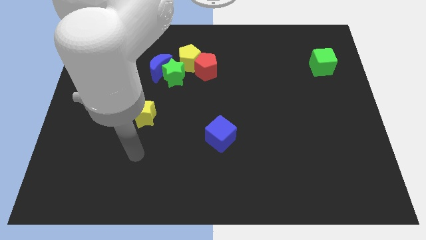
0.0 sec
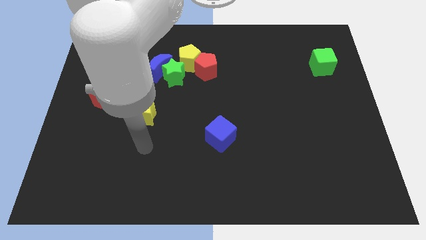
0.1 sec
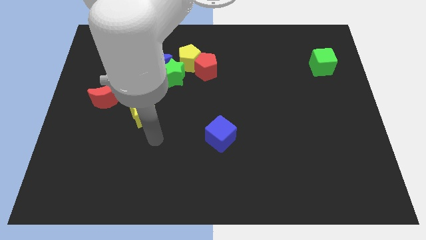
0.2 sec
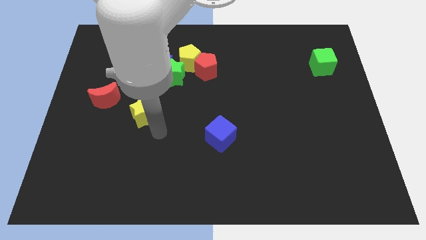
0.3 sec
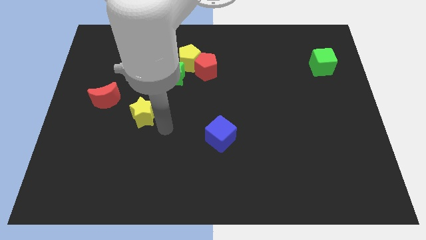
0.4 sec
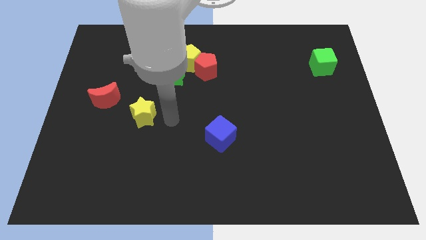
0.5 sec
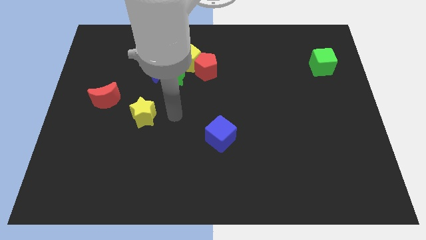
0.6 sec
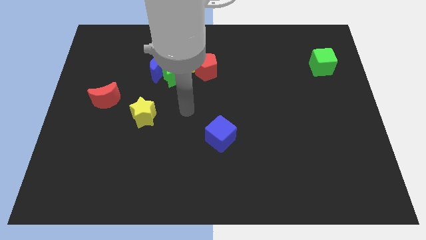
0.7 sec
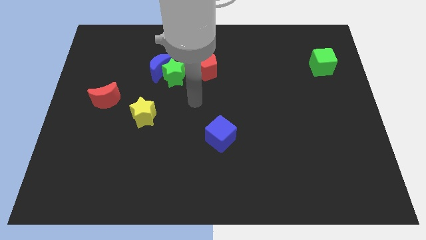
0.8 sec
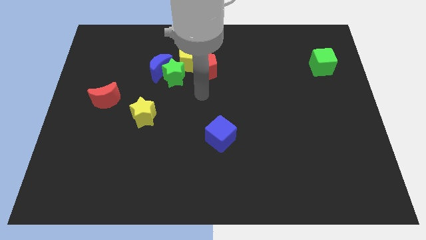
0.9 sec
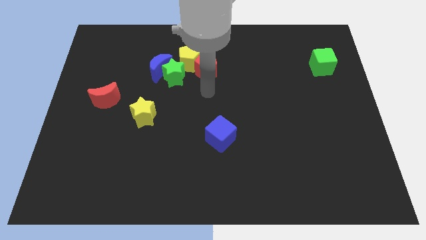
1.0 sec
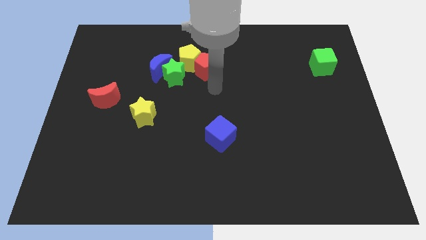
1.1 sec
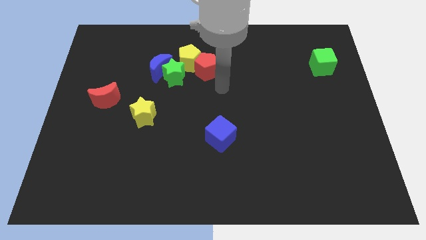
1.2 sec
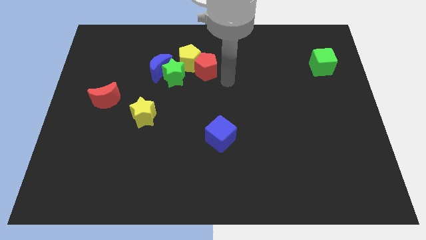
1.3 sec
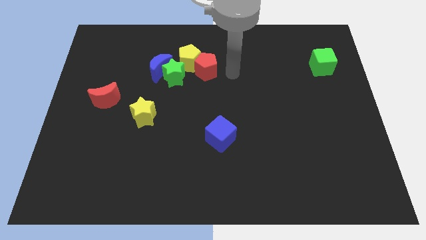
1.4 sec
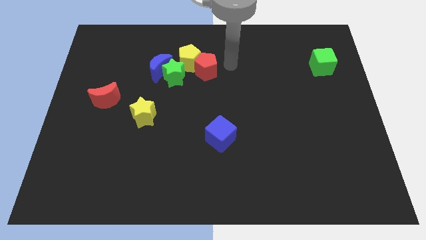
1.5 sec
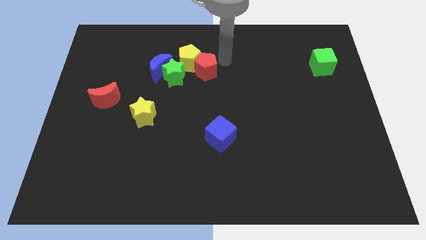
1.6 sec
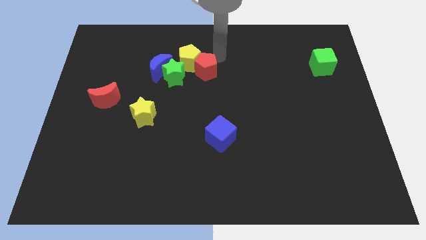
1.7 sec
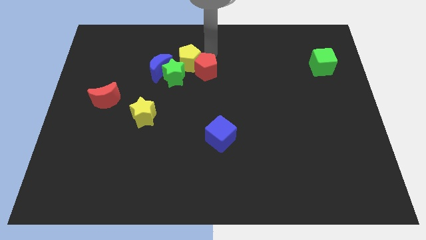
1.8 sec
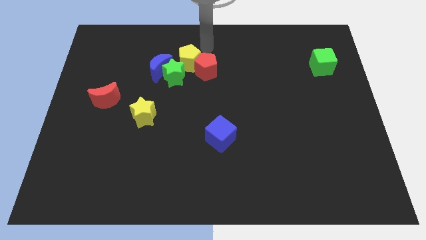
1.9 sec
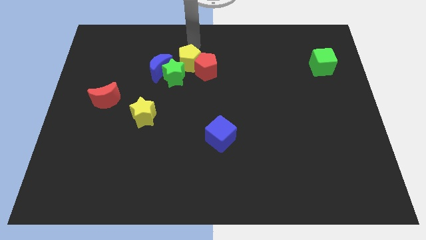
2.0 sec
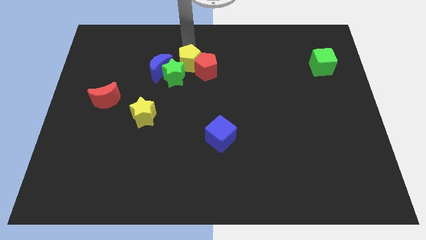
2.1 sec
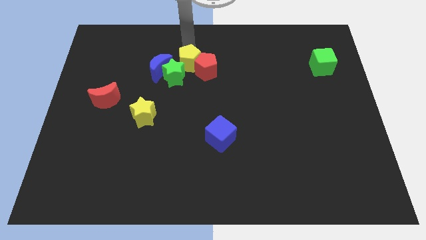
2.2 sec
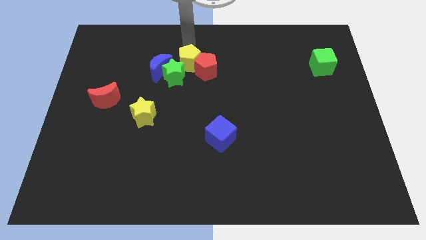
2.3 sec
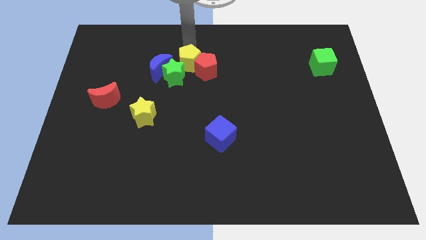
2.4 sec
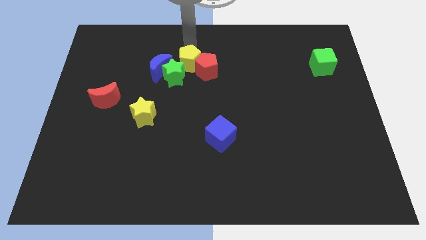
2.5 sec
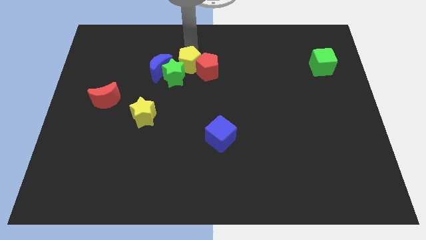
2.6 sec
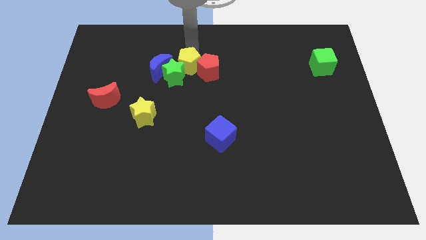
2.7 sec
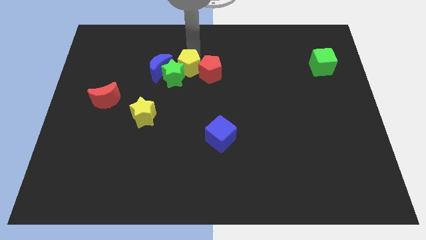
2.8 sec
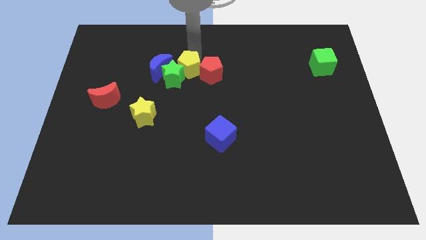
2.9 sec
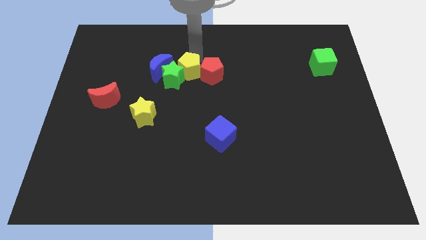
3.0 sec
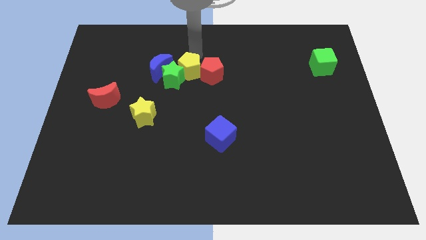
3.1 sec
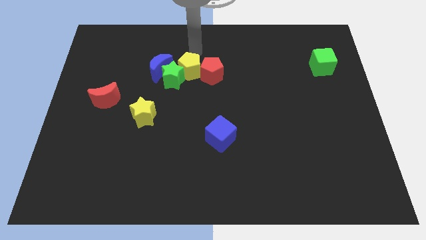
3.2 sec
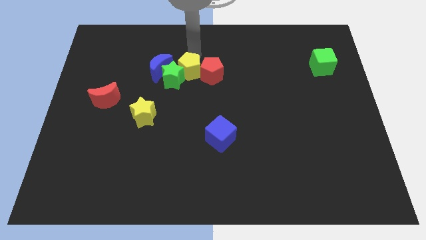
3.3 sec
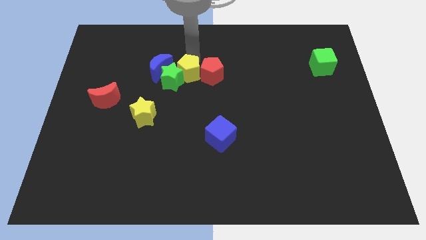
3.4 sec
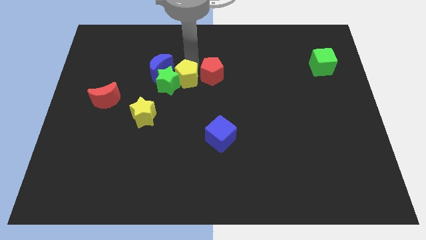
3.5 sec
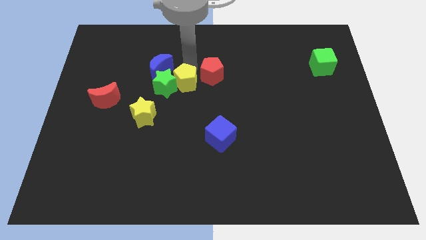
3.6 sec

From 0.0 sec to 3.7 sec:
slide the yellow pentagon down somewhat

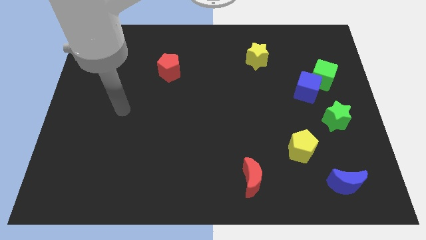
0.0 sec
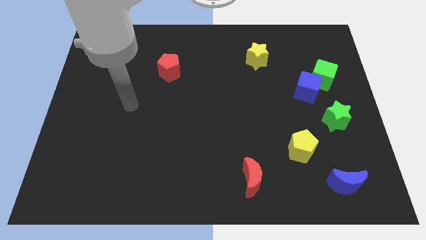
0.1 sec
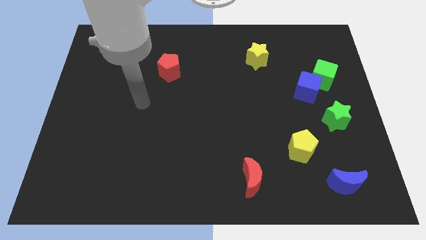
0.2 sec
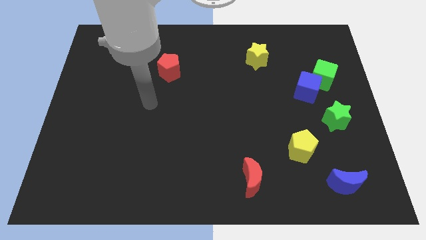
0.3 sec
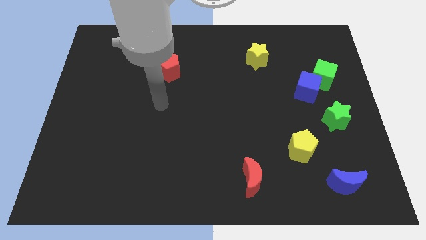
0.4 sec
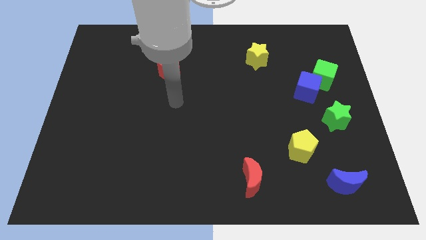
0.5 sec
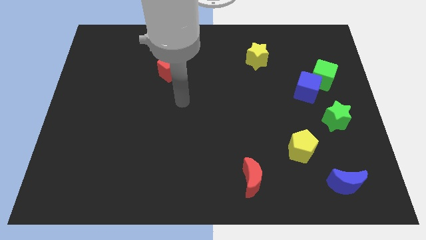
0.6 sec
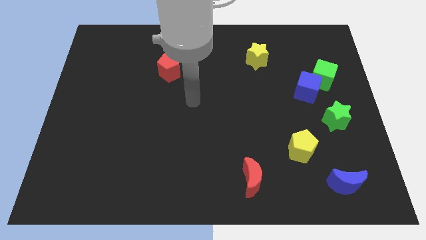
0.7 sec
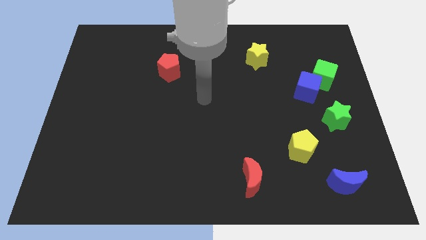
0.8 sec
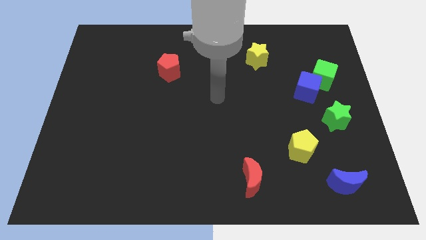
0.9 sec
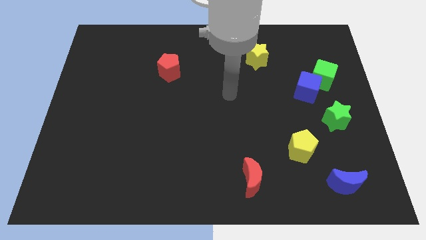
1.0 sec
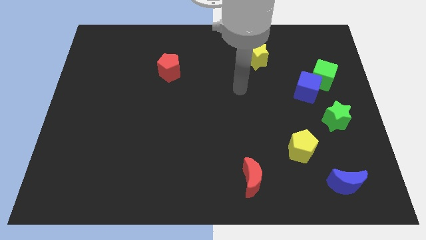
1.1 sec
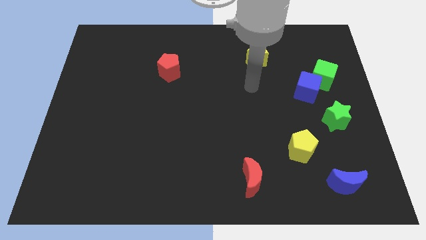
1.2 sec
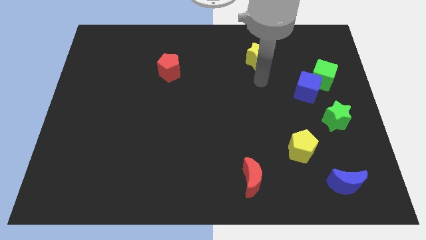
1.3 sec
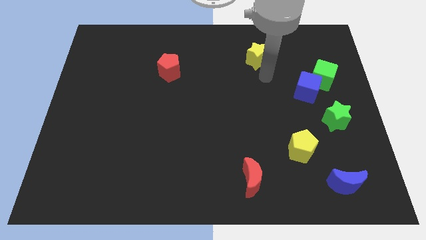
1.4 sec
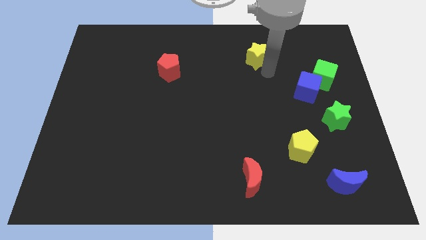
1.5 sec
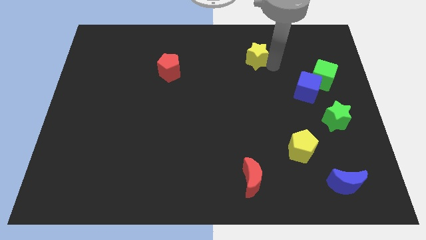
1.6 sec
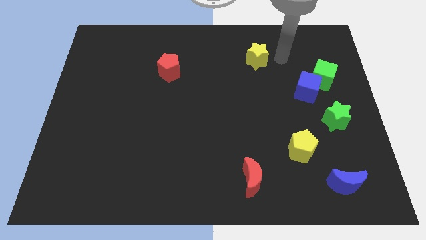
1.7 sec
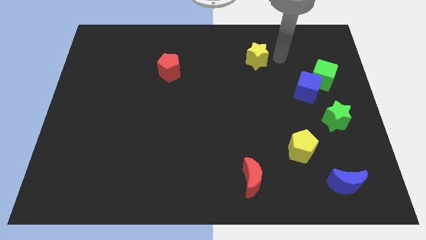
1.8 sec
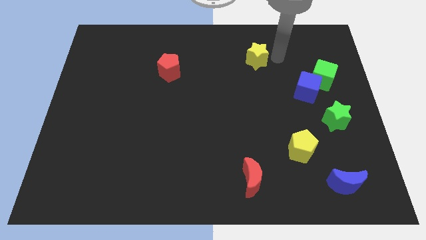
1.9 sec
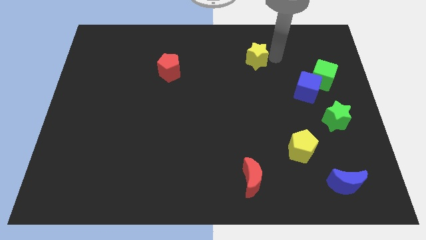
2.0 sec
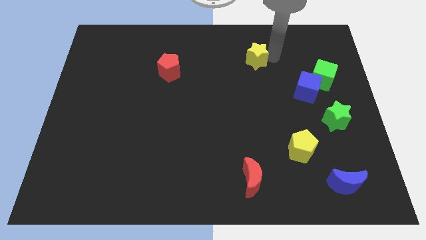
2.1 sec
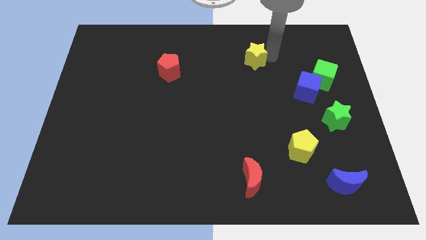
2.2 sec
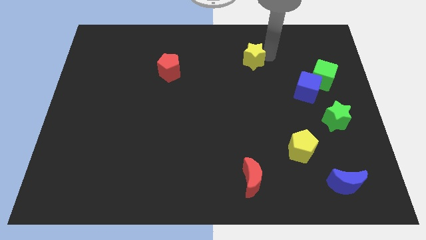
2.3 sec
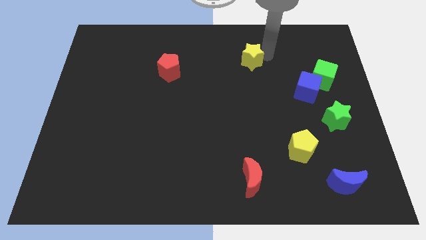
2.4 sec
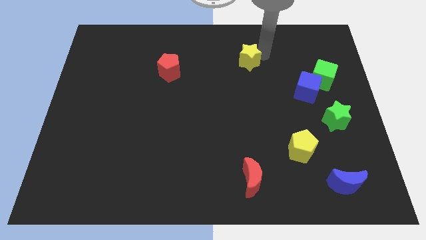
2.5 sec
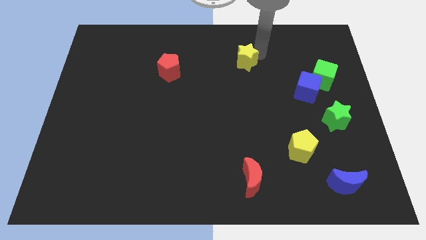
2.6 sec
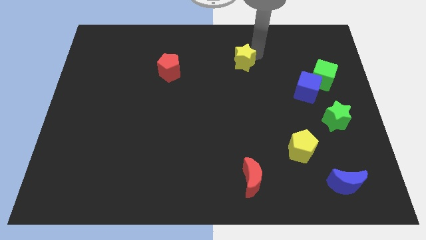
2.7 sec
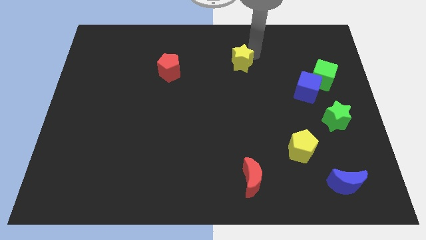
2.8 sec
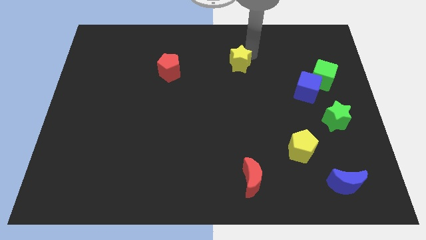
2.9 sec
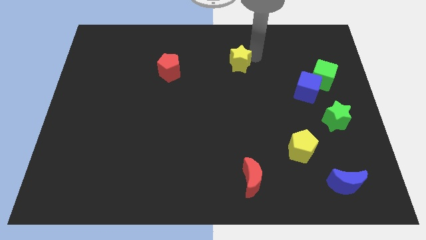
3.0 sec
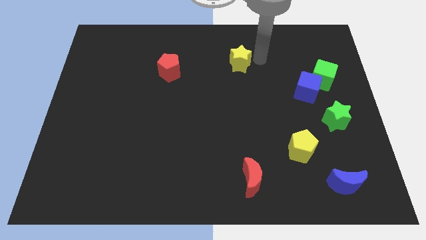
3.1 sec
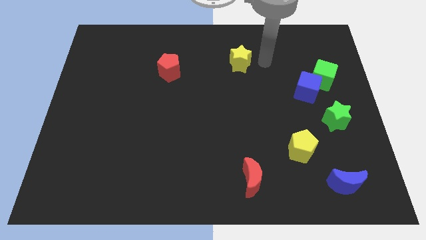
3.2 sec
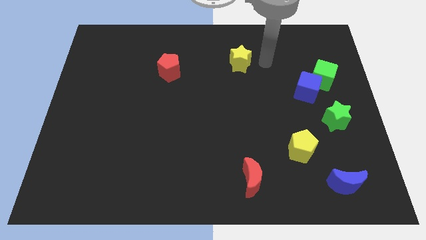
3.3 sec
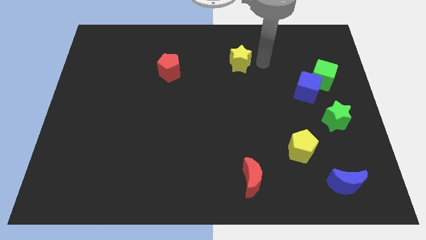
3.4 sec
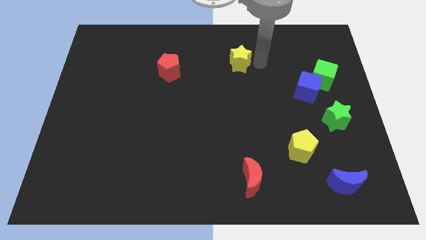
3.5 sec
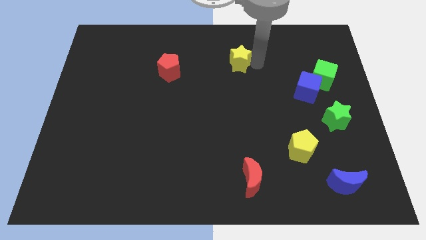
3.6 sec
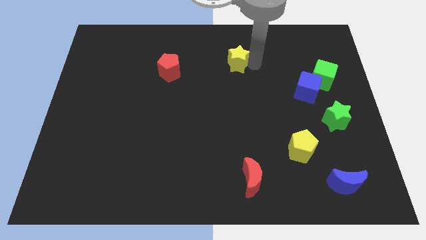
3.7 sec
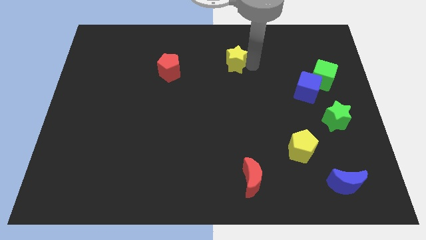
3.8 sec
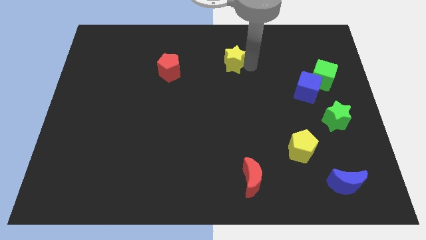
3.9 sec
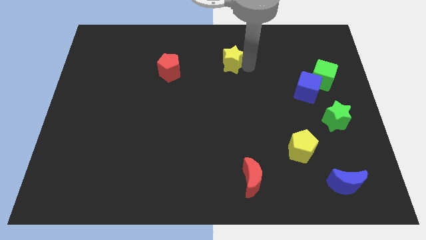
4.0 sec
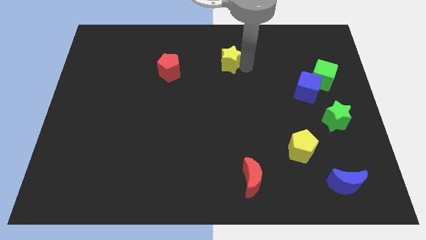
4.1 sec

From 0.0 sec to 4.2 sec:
slightly move the yellow star to the left

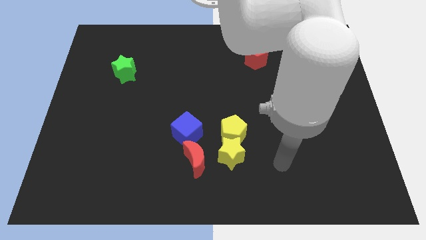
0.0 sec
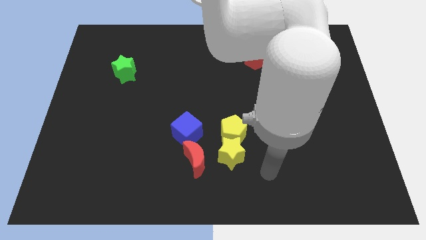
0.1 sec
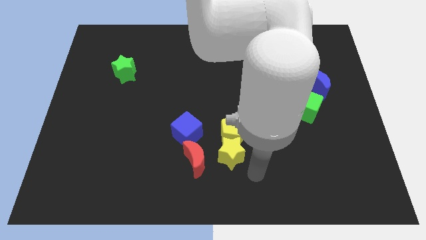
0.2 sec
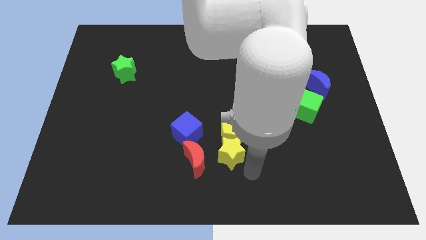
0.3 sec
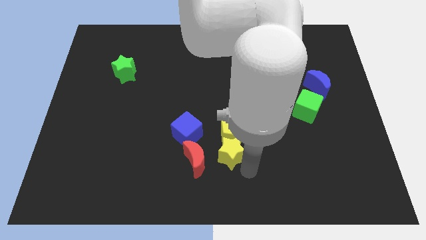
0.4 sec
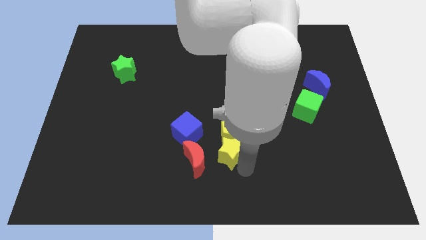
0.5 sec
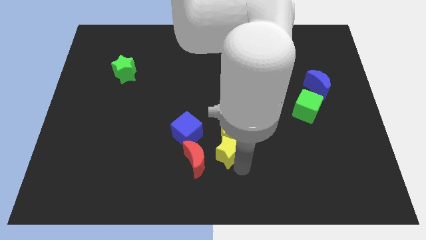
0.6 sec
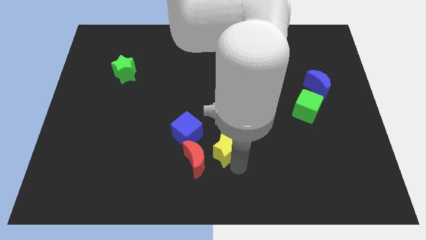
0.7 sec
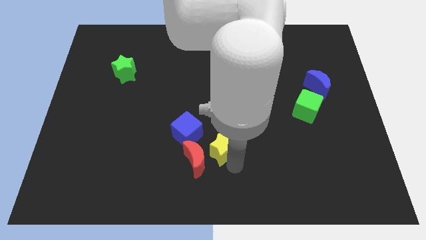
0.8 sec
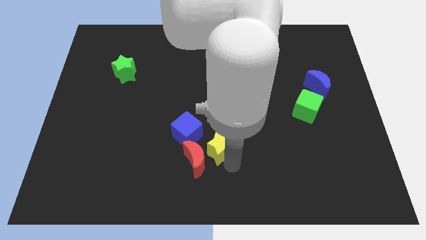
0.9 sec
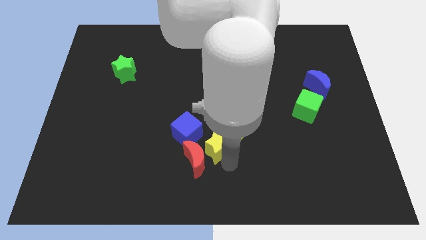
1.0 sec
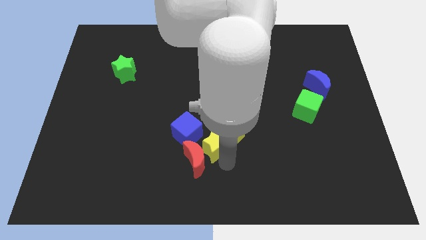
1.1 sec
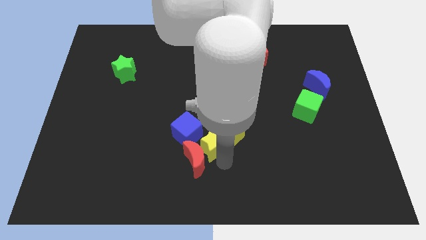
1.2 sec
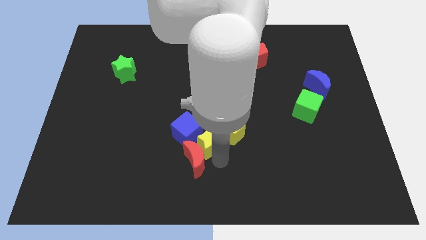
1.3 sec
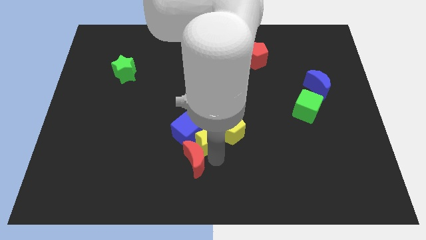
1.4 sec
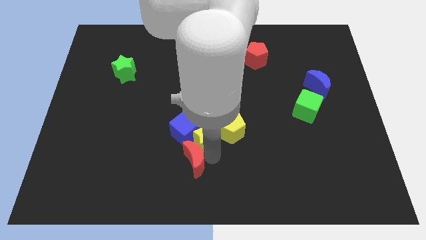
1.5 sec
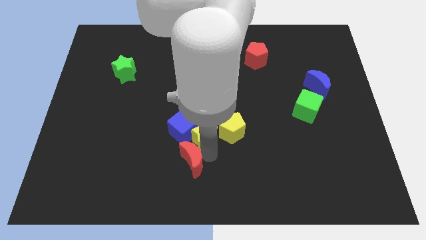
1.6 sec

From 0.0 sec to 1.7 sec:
slightly move the yellow star upwards and to the left diagonally
